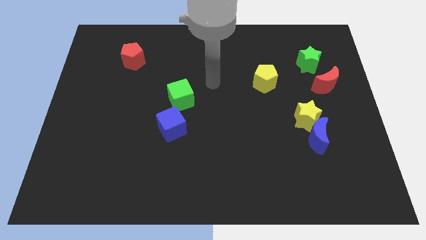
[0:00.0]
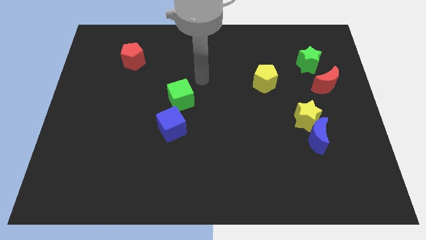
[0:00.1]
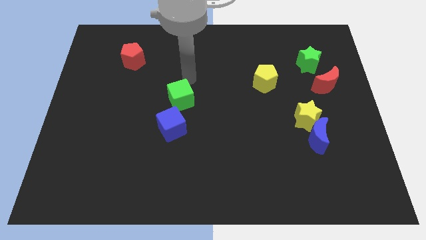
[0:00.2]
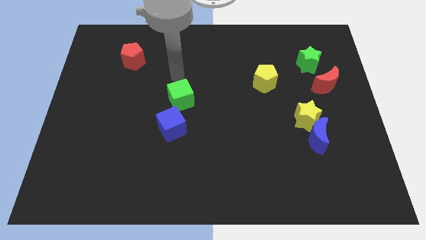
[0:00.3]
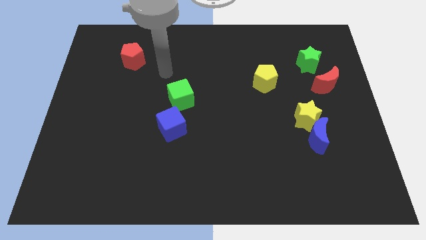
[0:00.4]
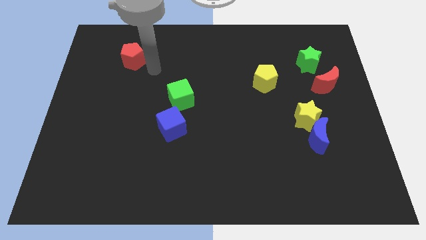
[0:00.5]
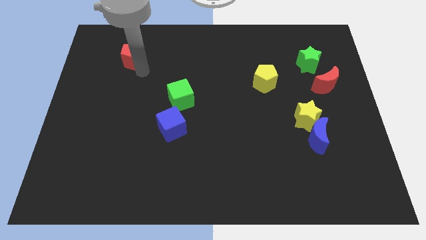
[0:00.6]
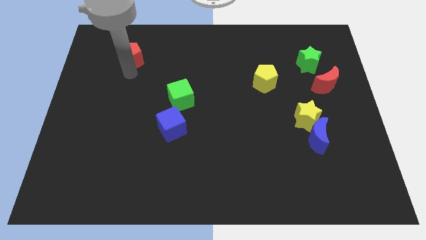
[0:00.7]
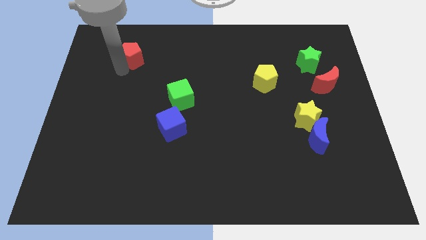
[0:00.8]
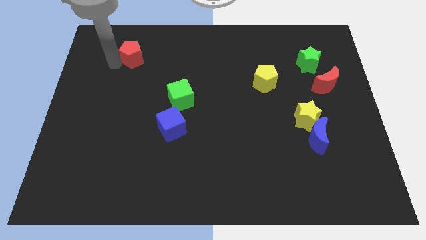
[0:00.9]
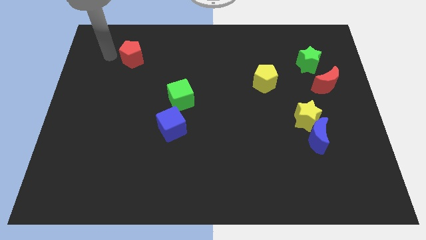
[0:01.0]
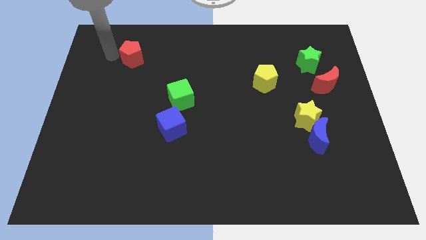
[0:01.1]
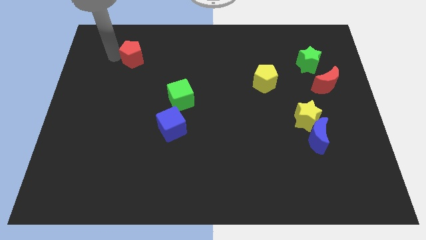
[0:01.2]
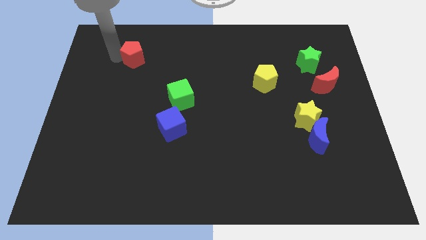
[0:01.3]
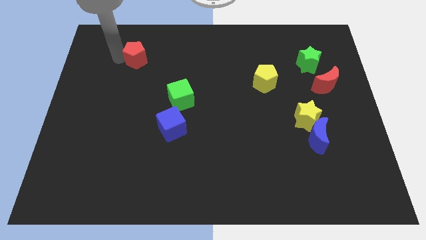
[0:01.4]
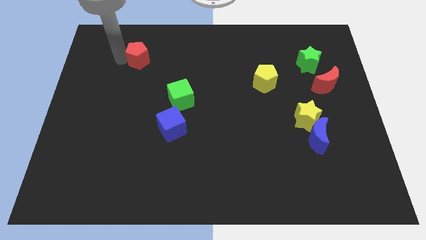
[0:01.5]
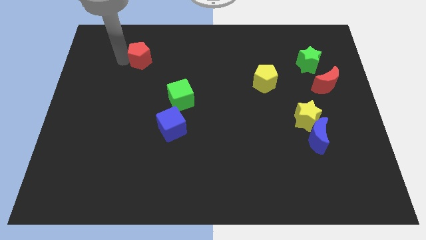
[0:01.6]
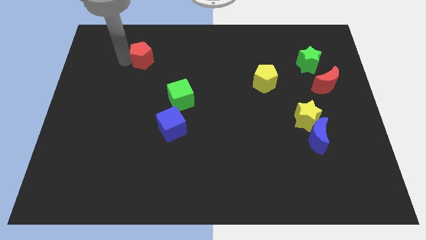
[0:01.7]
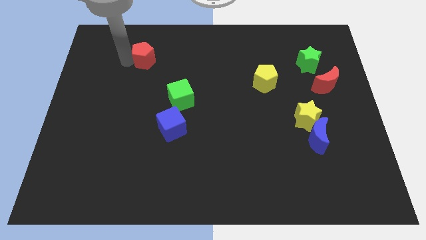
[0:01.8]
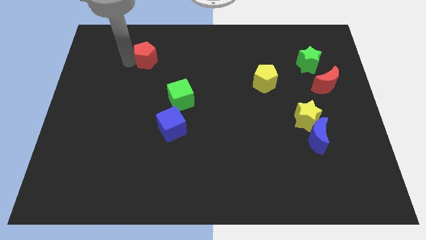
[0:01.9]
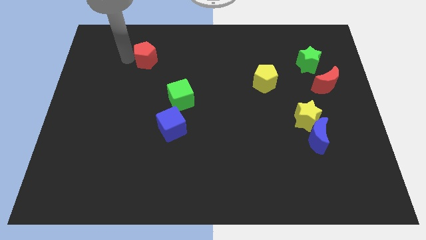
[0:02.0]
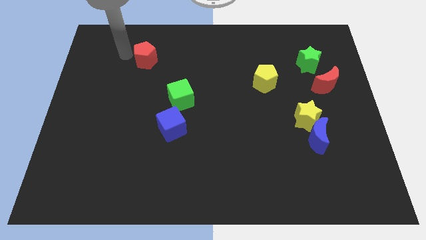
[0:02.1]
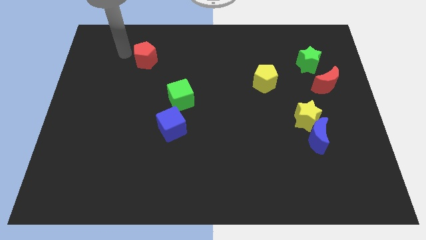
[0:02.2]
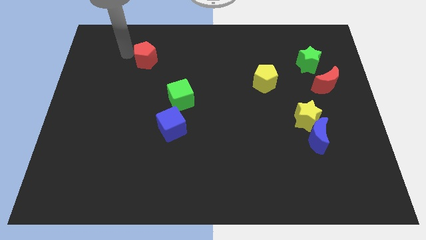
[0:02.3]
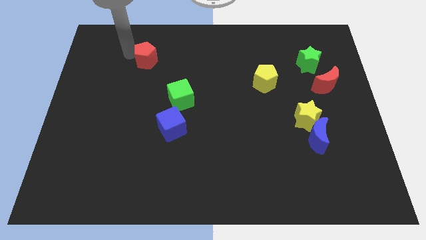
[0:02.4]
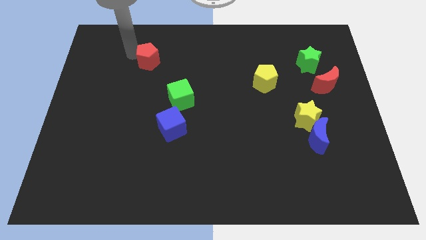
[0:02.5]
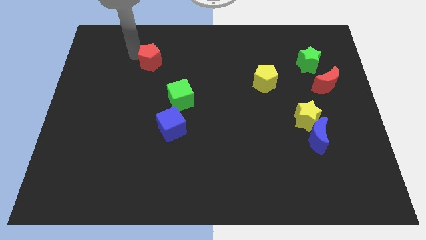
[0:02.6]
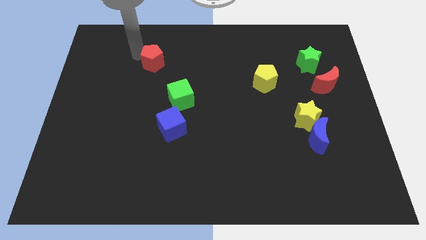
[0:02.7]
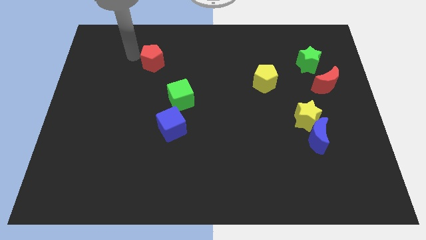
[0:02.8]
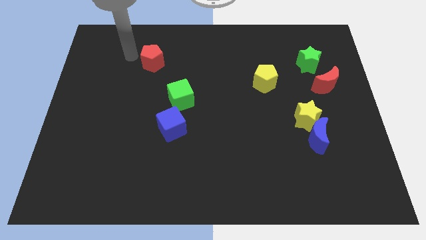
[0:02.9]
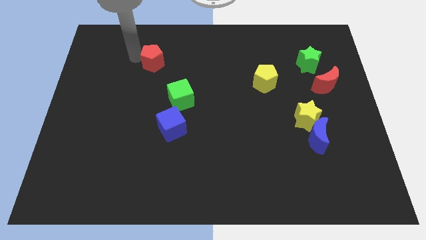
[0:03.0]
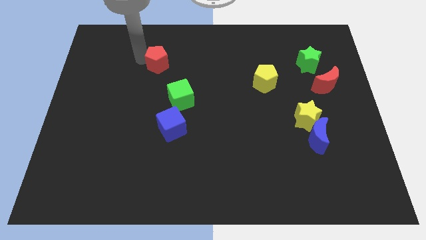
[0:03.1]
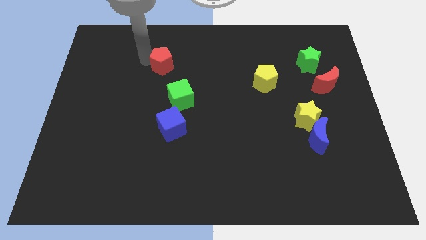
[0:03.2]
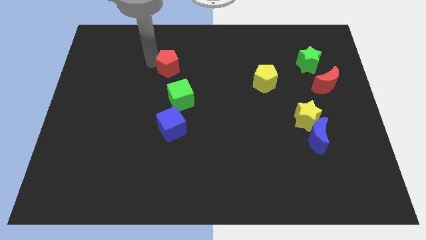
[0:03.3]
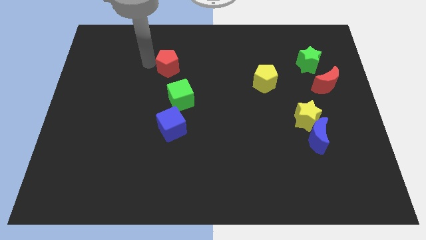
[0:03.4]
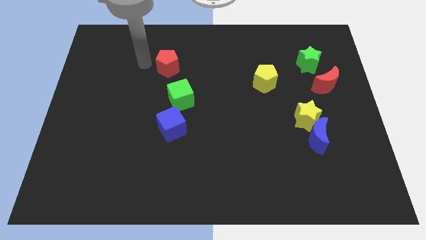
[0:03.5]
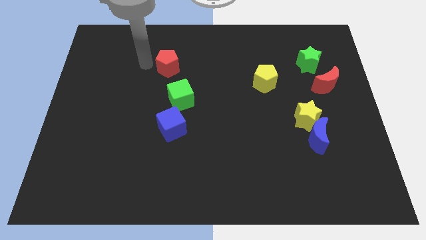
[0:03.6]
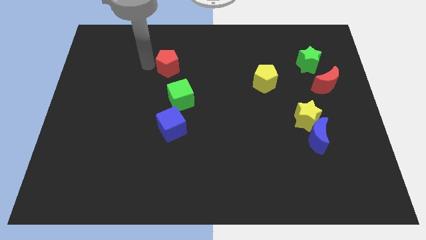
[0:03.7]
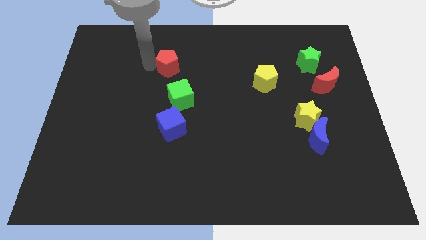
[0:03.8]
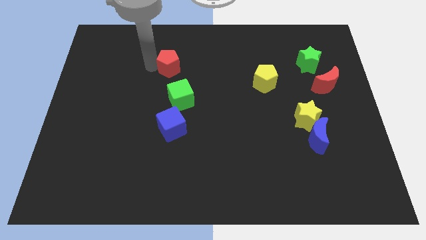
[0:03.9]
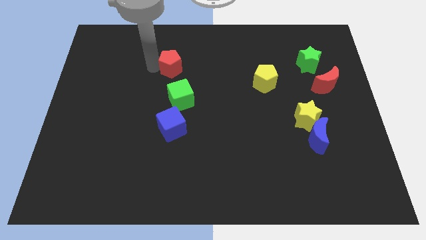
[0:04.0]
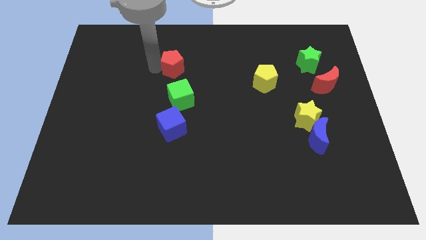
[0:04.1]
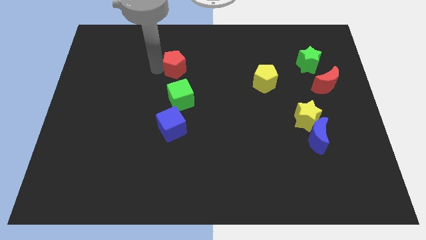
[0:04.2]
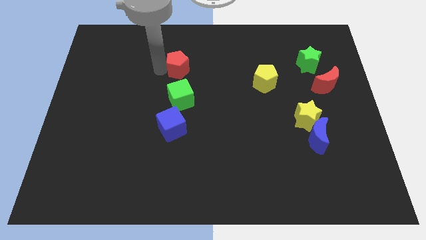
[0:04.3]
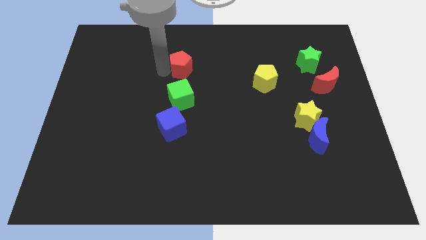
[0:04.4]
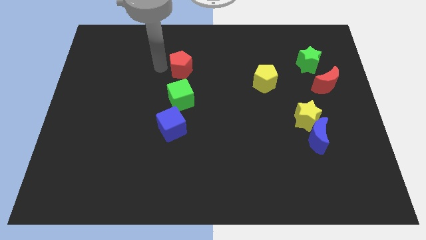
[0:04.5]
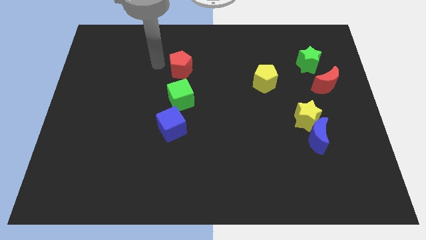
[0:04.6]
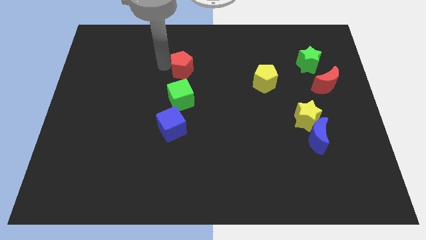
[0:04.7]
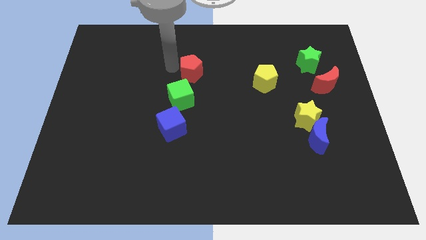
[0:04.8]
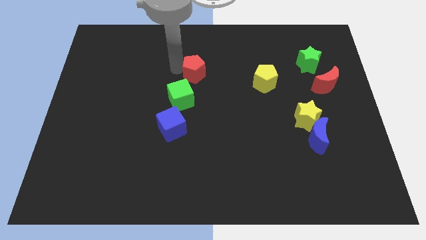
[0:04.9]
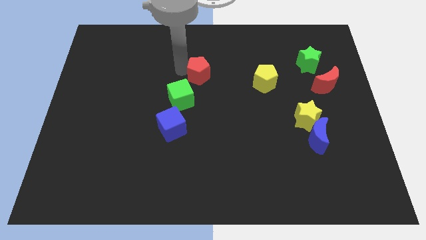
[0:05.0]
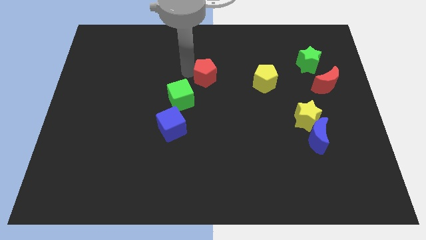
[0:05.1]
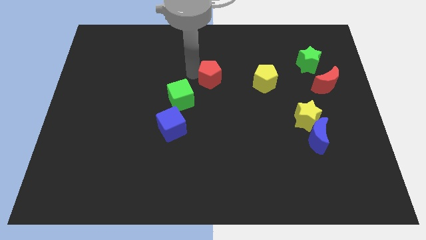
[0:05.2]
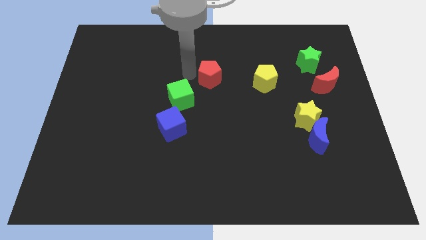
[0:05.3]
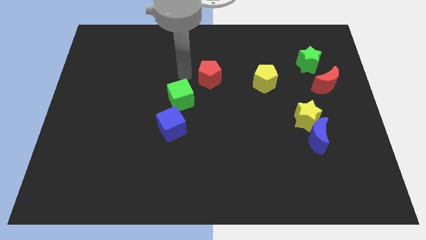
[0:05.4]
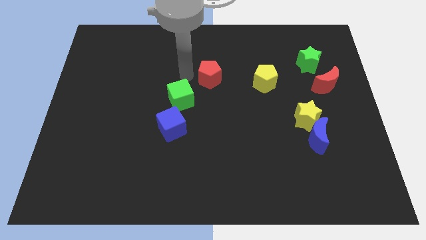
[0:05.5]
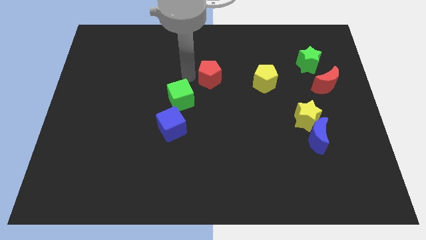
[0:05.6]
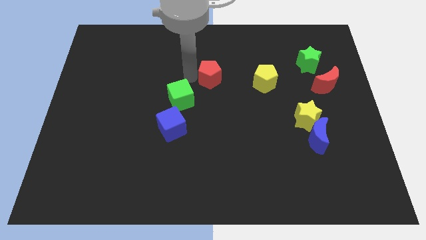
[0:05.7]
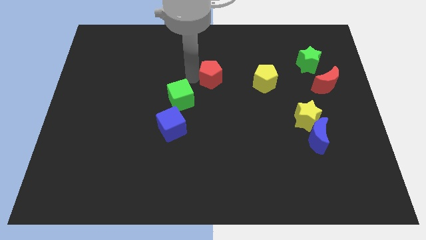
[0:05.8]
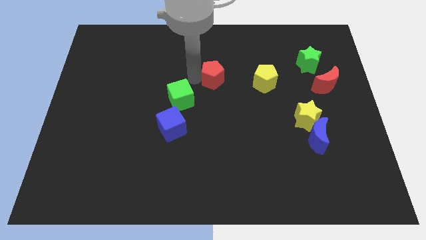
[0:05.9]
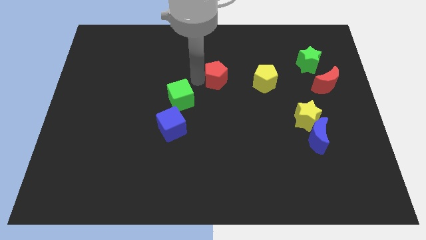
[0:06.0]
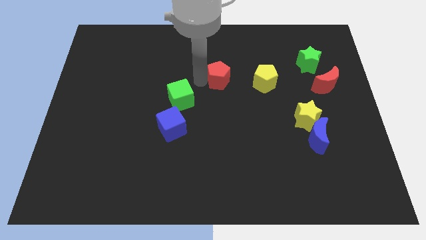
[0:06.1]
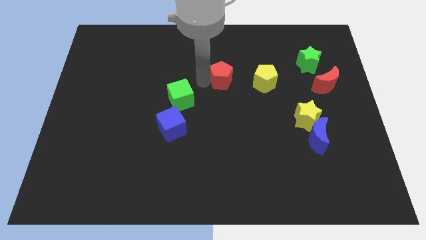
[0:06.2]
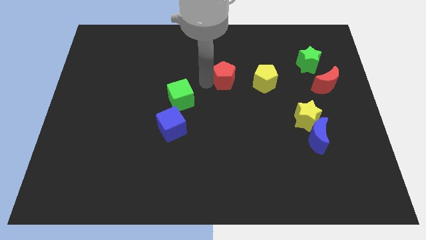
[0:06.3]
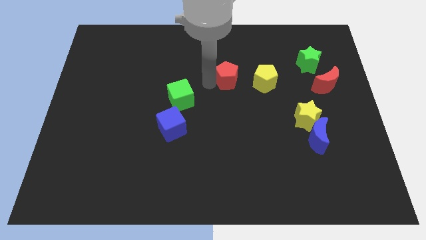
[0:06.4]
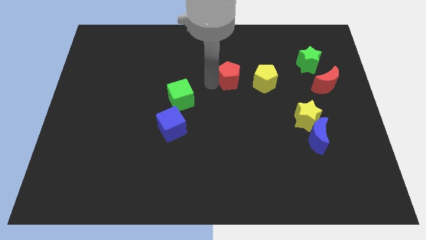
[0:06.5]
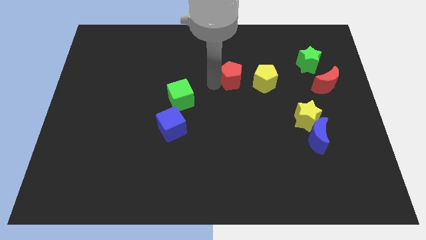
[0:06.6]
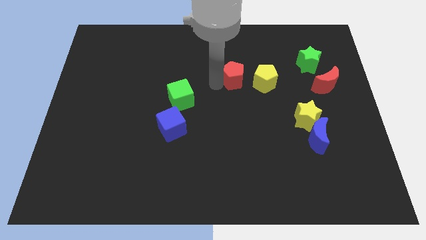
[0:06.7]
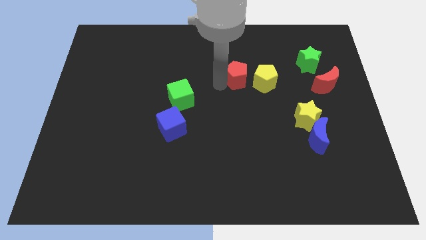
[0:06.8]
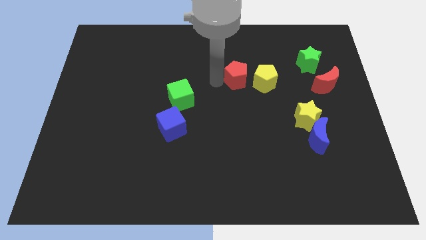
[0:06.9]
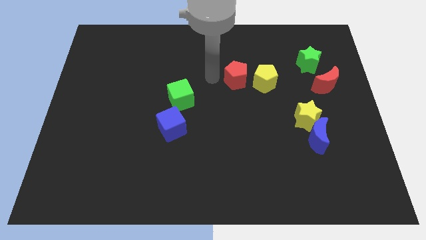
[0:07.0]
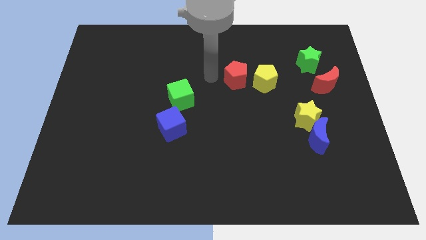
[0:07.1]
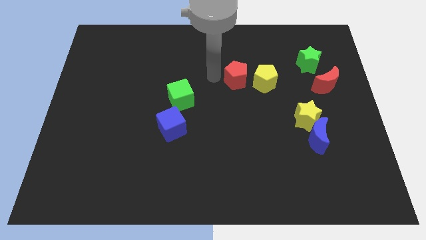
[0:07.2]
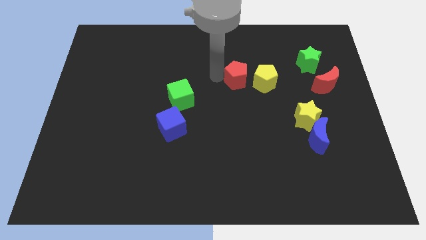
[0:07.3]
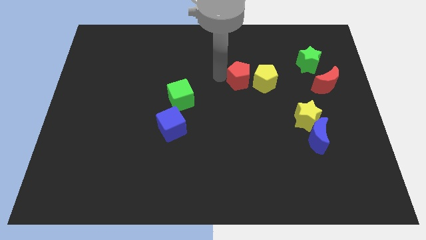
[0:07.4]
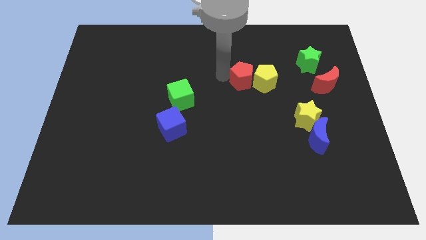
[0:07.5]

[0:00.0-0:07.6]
push the red pentagon next to the yellow pentagon

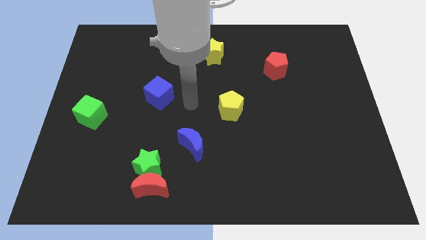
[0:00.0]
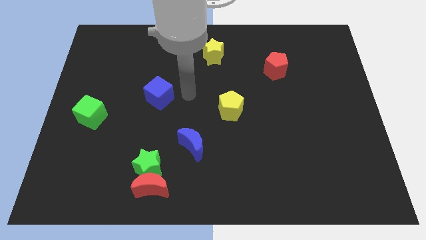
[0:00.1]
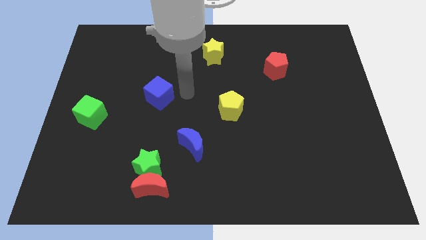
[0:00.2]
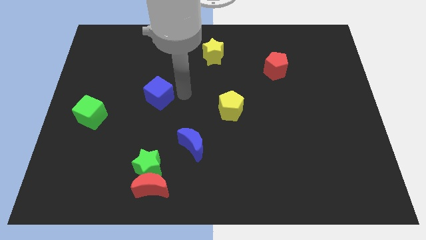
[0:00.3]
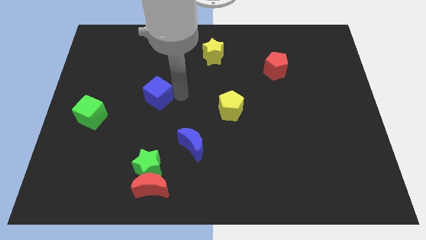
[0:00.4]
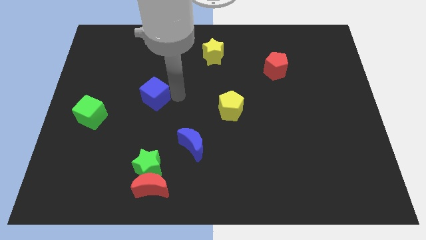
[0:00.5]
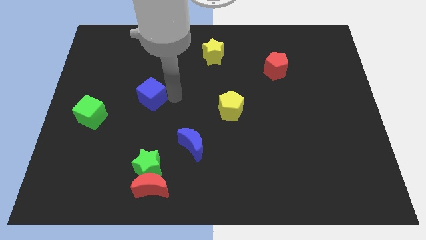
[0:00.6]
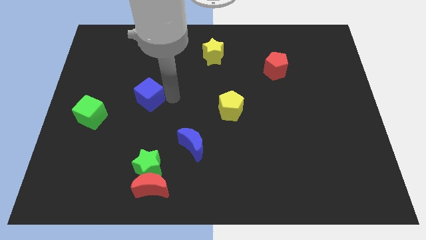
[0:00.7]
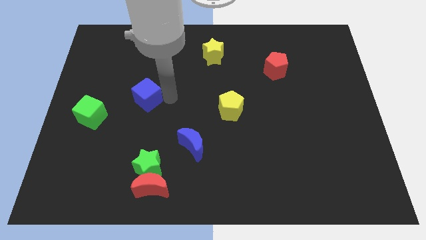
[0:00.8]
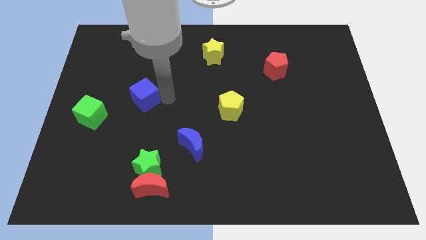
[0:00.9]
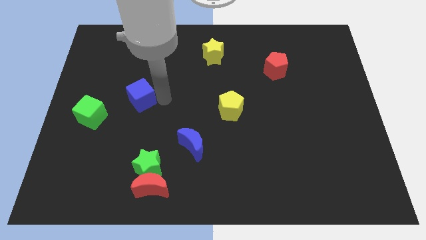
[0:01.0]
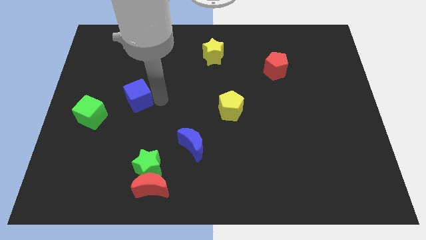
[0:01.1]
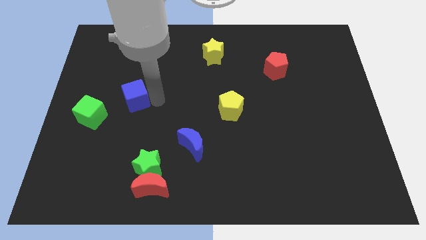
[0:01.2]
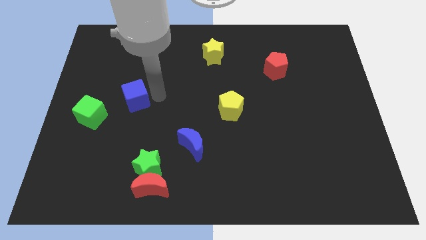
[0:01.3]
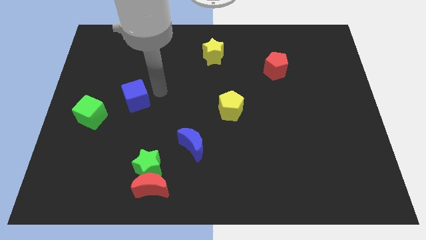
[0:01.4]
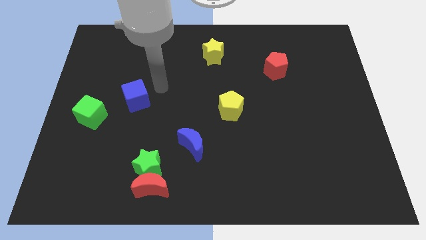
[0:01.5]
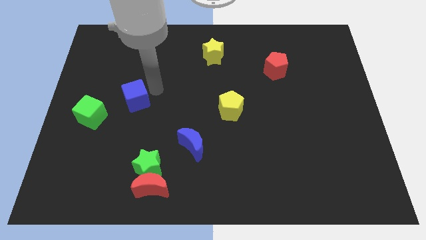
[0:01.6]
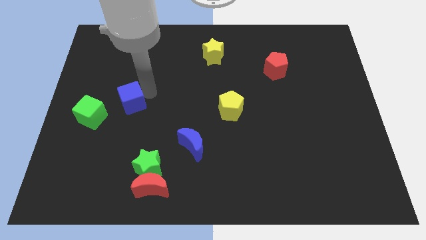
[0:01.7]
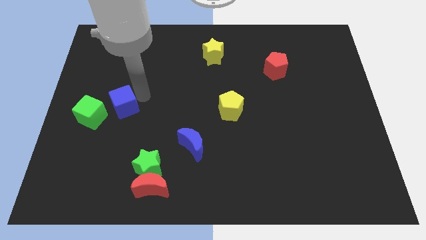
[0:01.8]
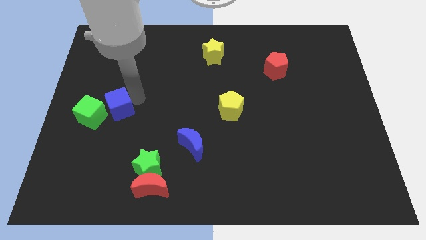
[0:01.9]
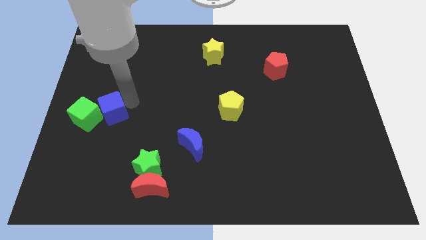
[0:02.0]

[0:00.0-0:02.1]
move the blue cube next to the green cube
